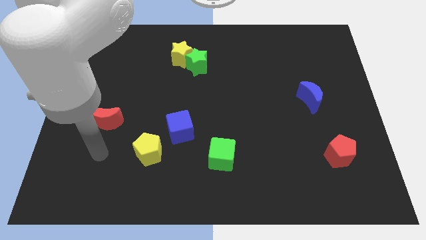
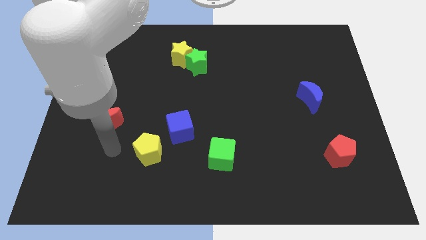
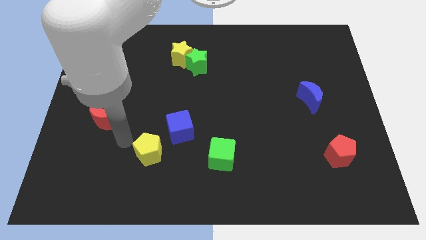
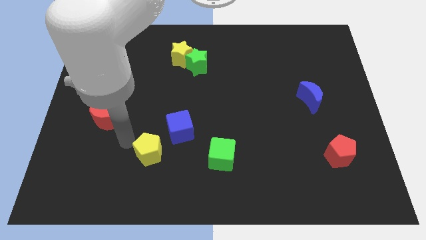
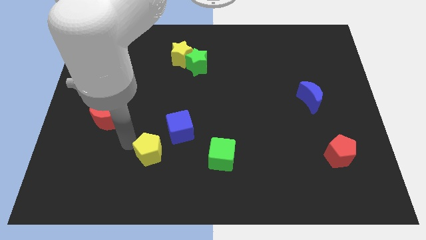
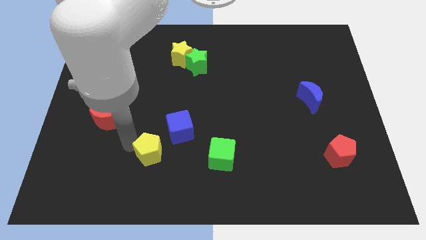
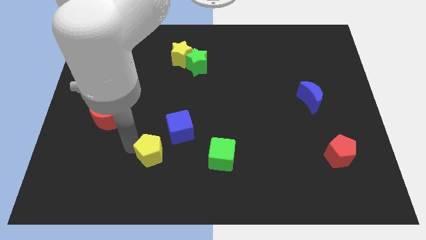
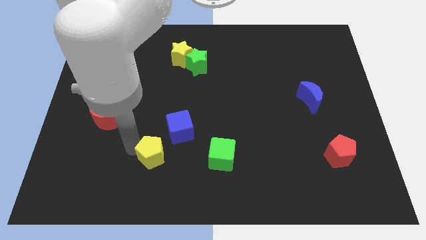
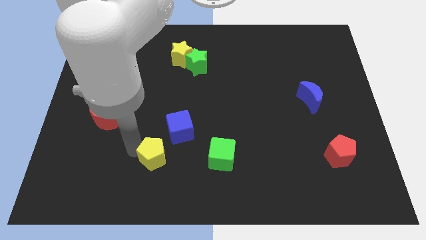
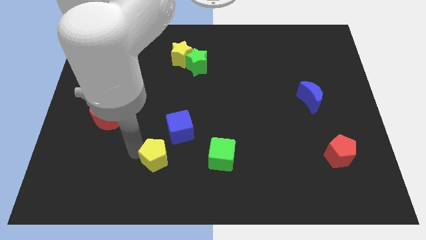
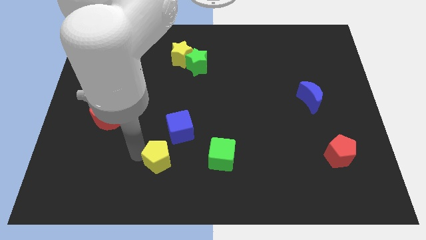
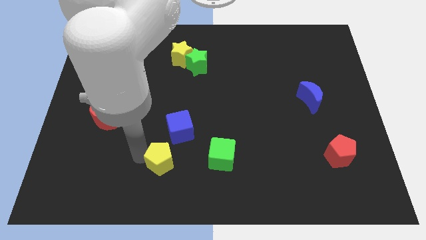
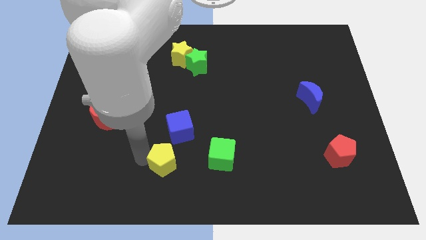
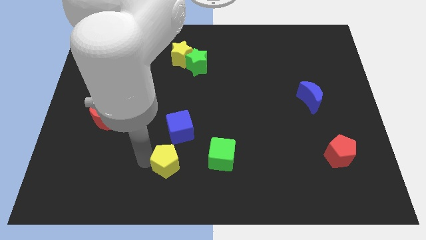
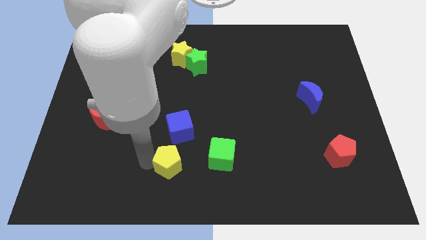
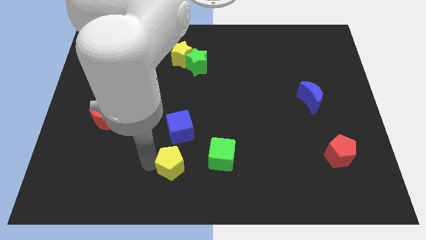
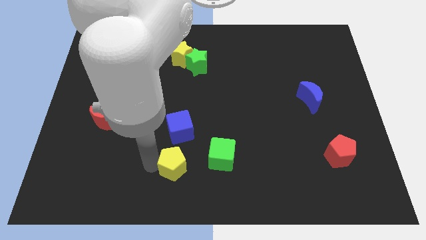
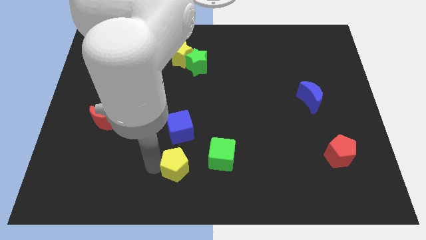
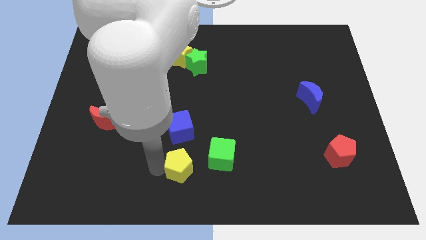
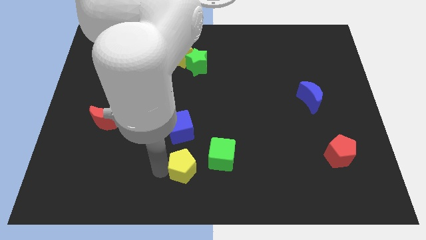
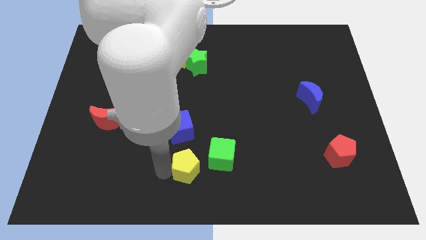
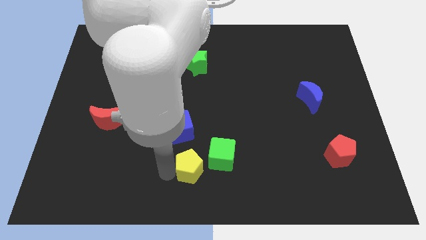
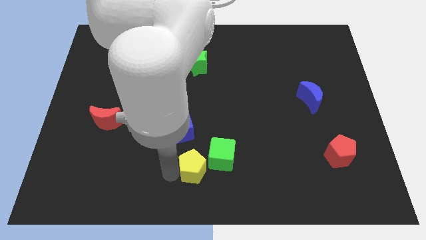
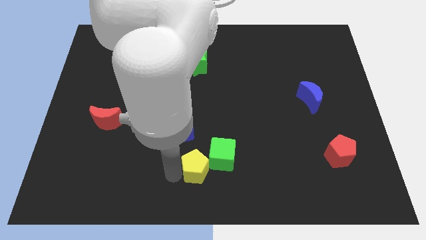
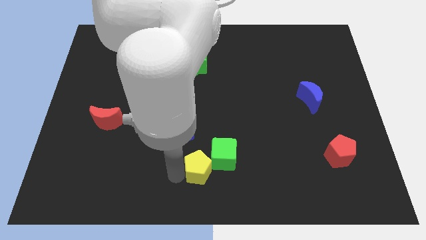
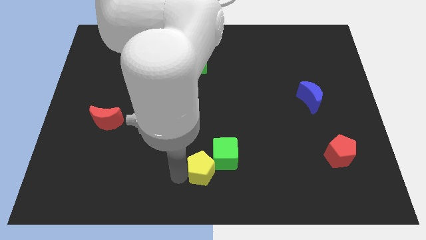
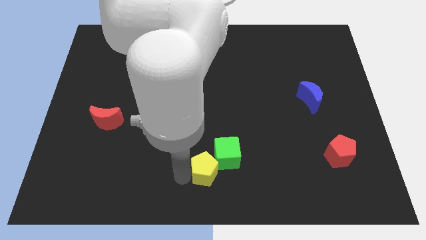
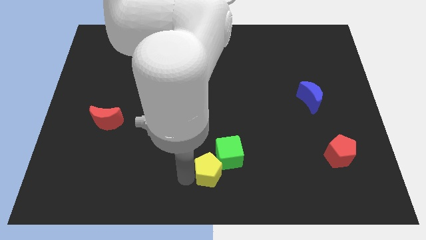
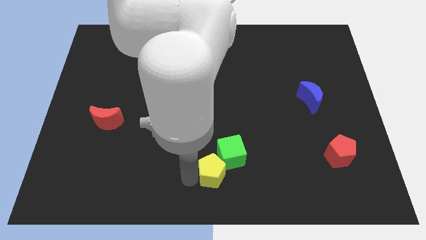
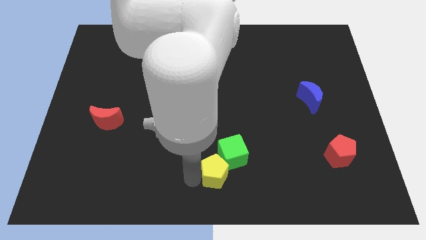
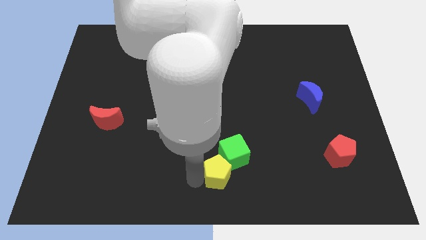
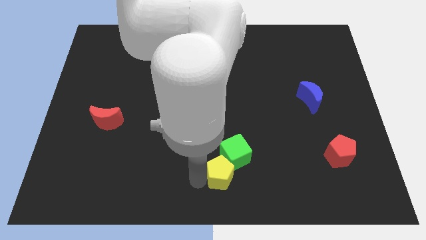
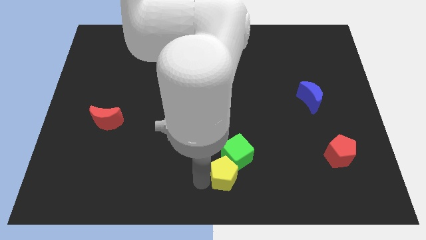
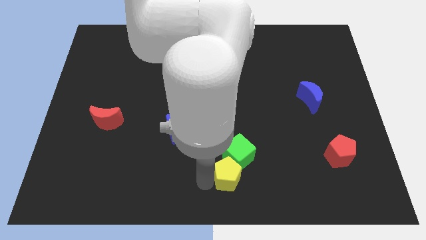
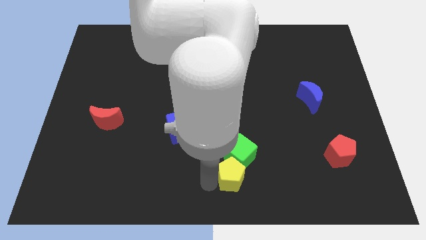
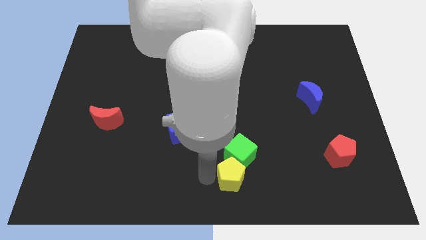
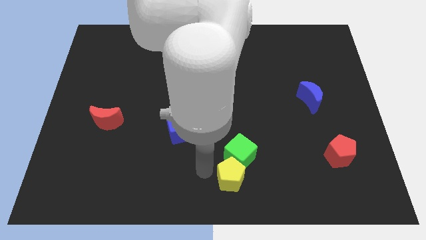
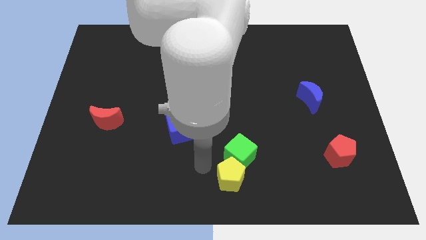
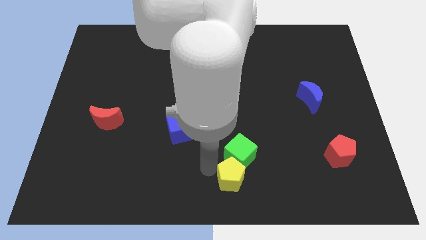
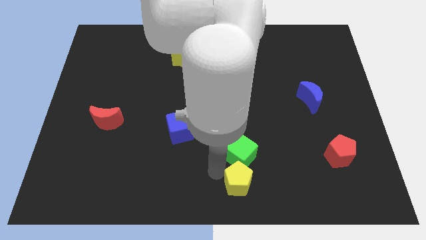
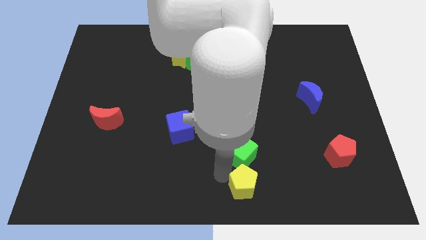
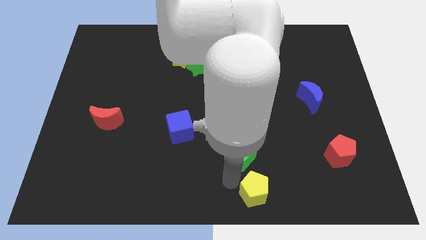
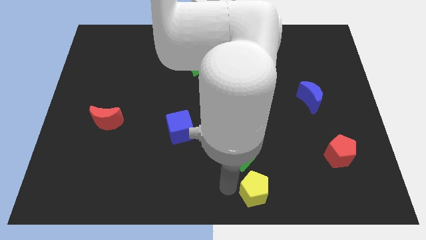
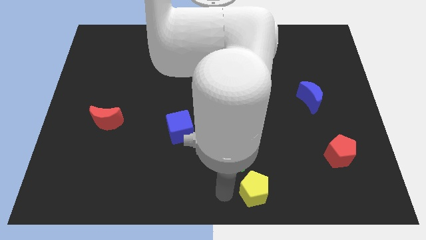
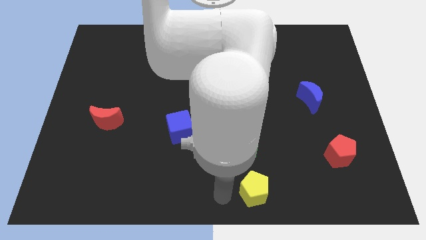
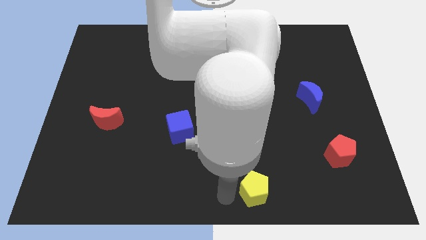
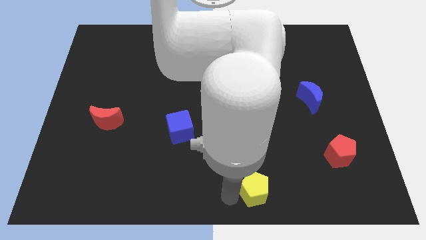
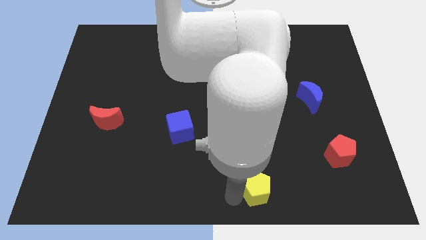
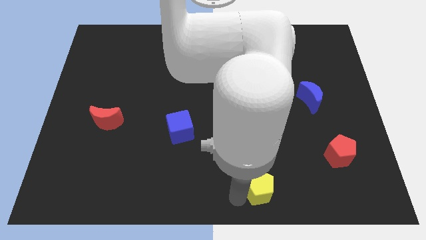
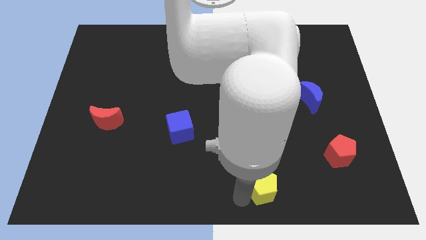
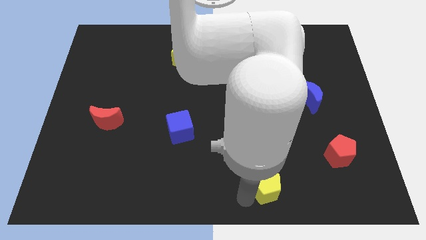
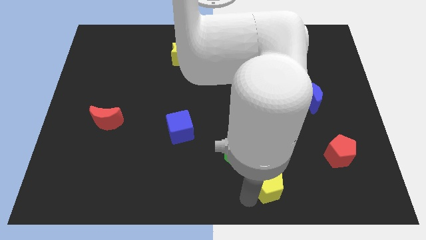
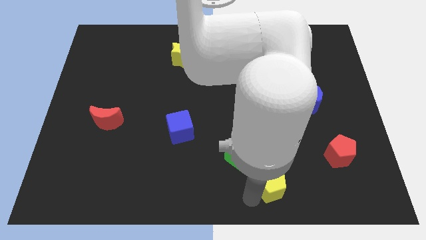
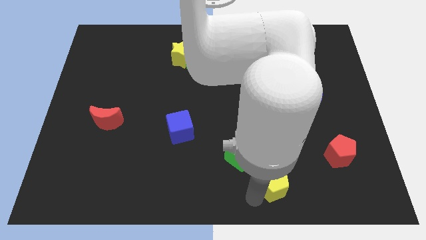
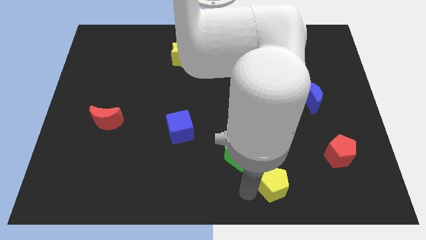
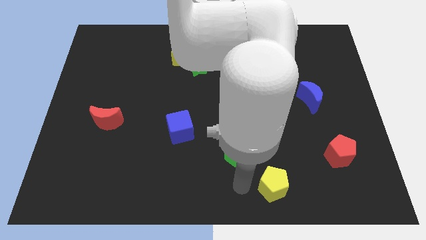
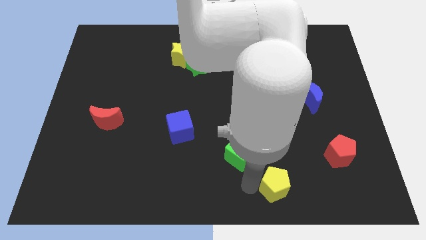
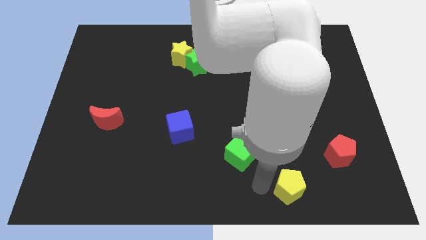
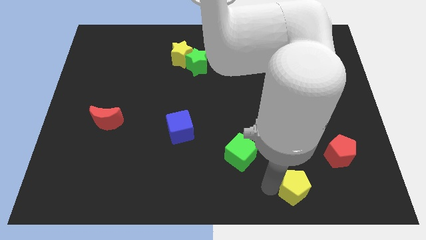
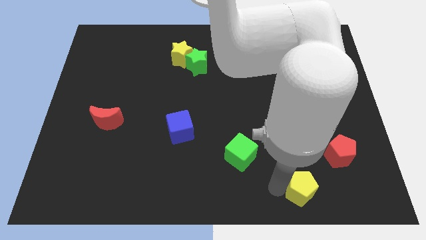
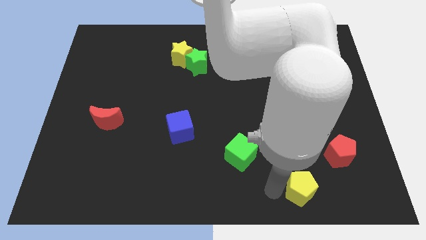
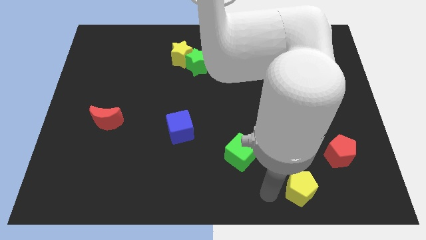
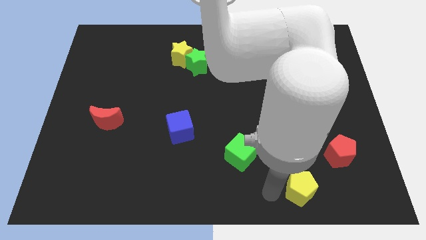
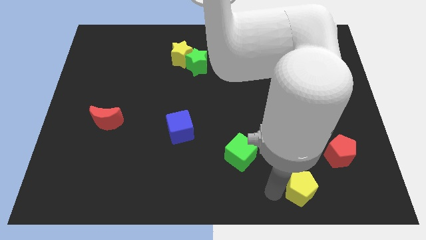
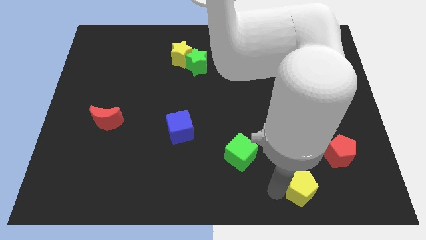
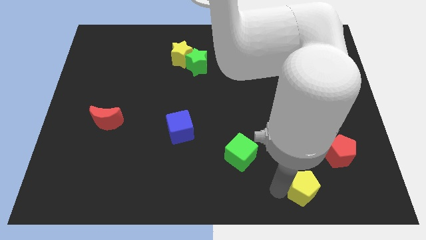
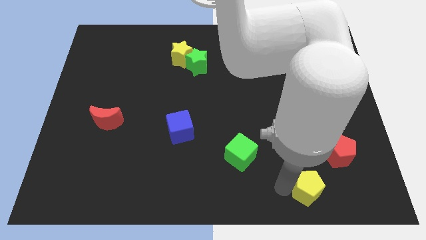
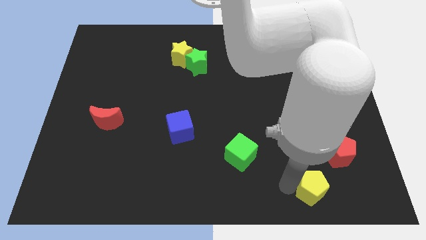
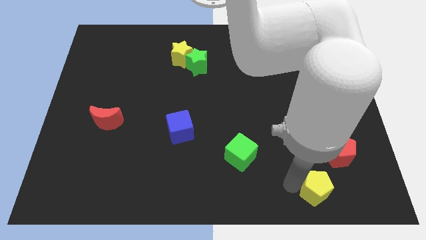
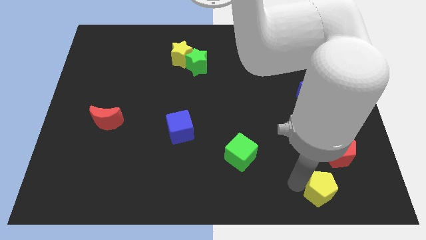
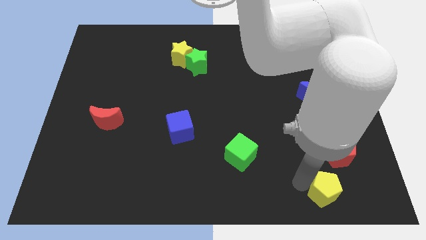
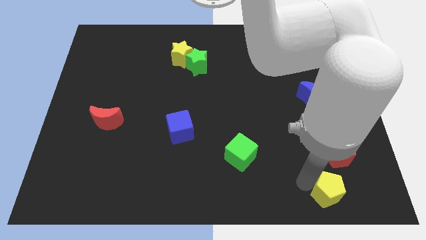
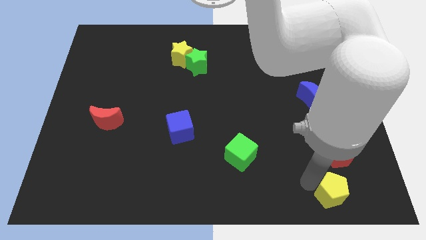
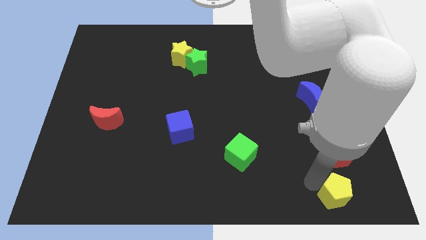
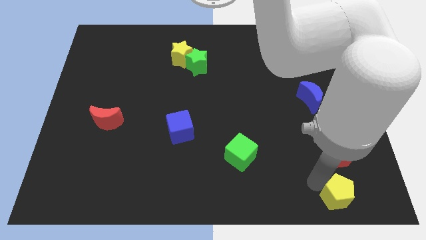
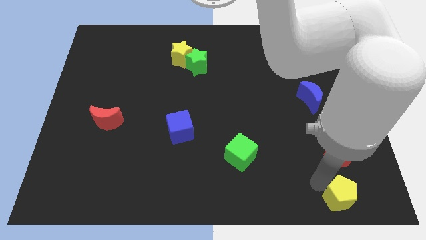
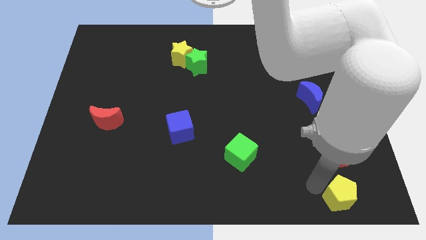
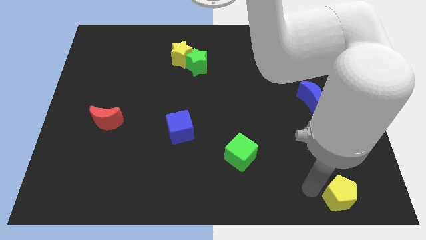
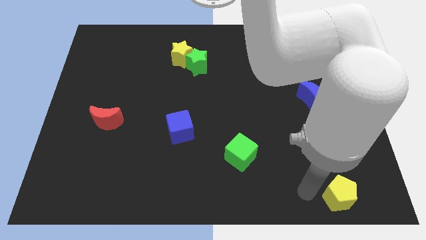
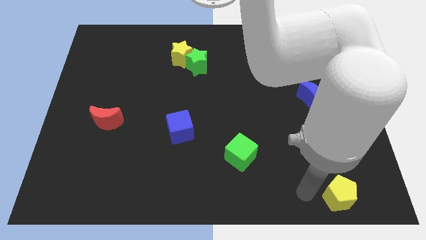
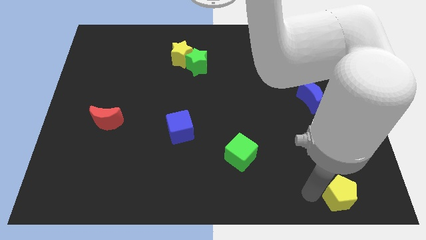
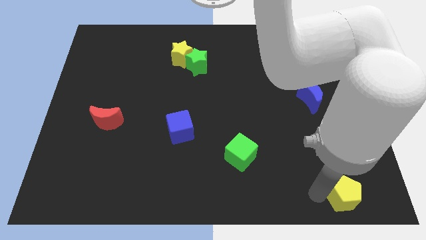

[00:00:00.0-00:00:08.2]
move the yellow pentagon to the bottom right of the board
